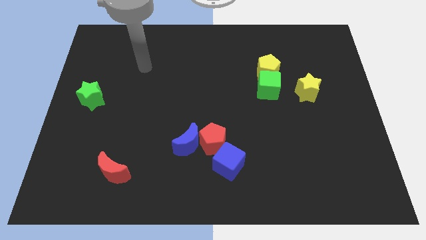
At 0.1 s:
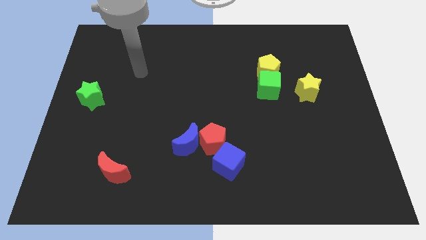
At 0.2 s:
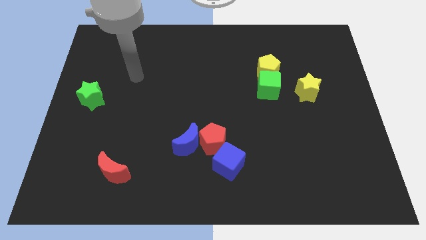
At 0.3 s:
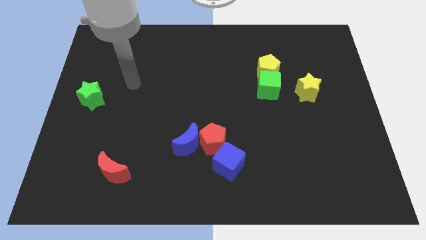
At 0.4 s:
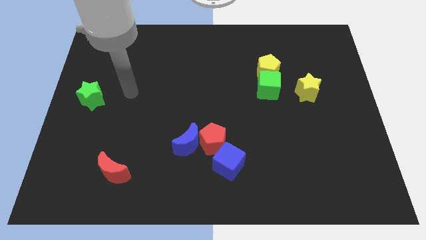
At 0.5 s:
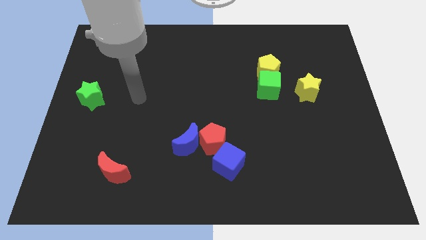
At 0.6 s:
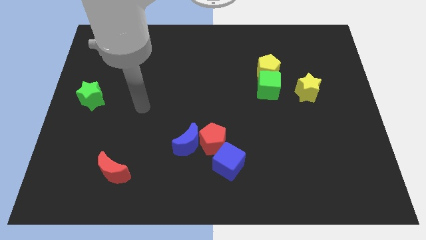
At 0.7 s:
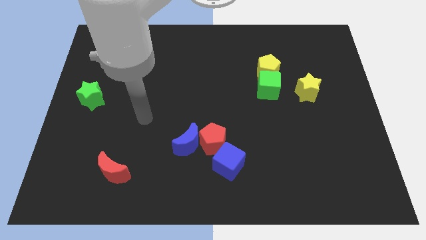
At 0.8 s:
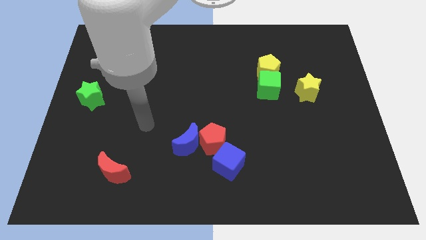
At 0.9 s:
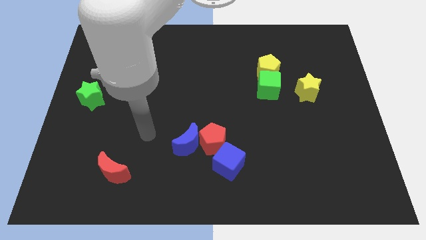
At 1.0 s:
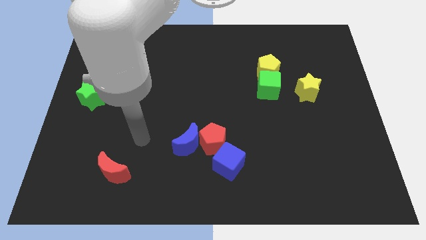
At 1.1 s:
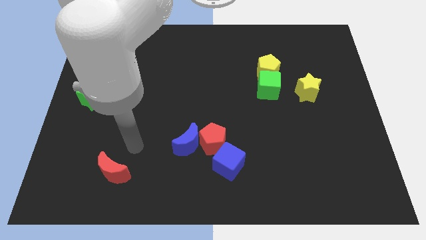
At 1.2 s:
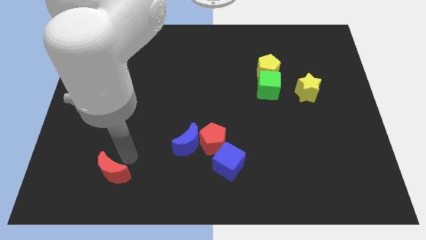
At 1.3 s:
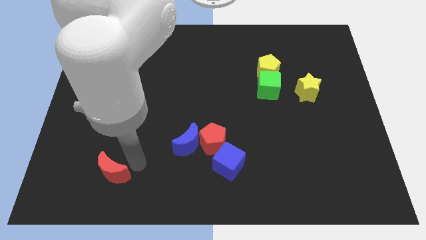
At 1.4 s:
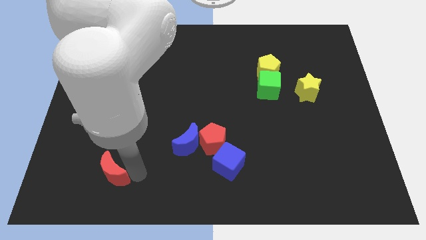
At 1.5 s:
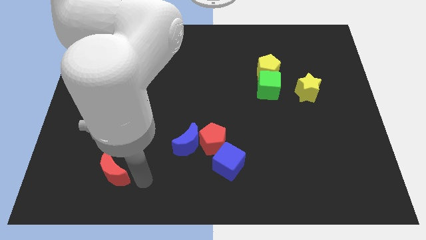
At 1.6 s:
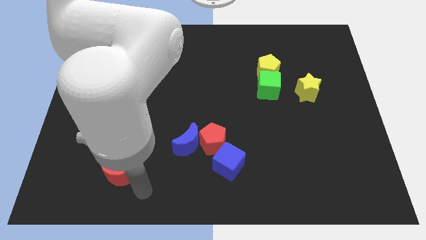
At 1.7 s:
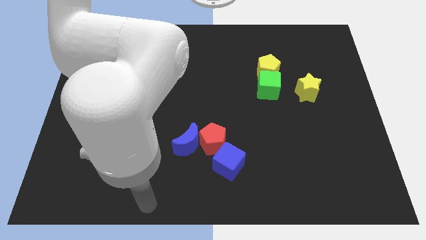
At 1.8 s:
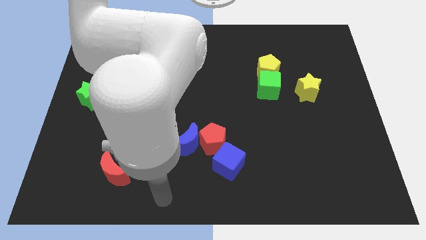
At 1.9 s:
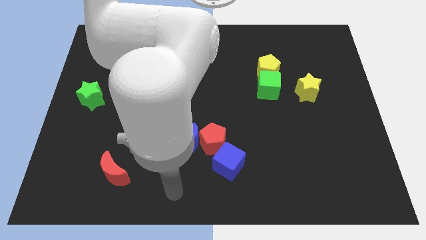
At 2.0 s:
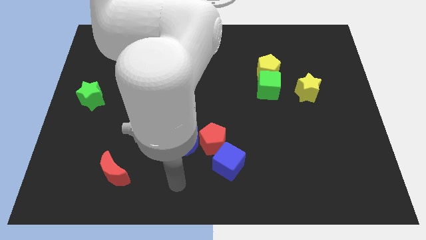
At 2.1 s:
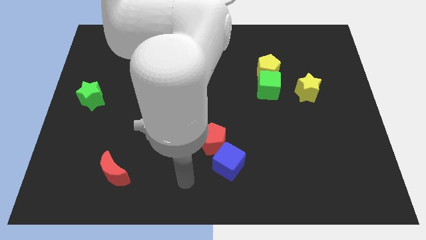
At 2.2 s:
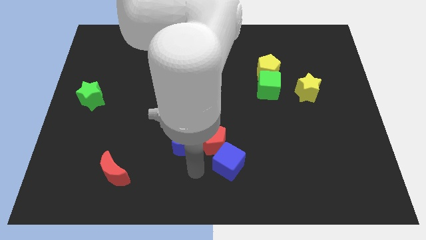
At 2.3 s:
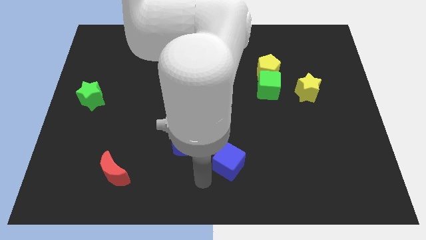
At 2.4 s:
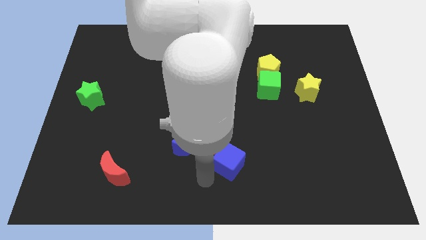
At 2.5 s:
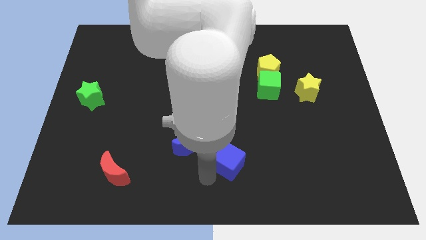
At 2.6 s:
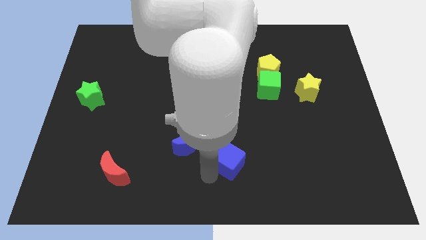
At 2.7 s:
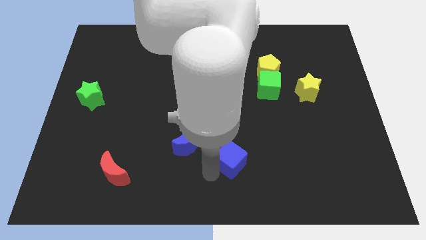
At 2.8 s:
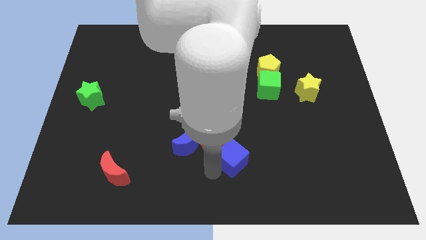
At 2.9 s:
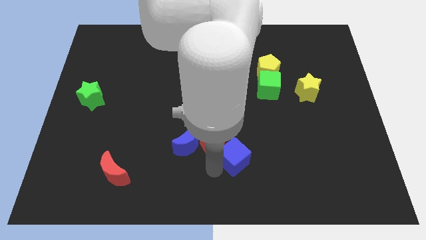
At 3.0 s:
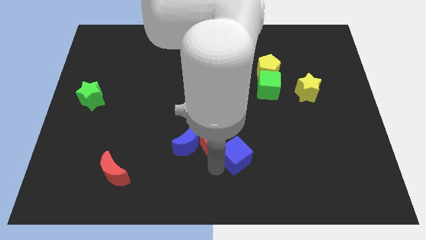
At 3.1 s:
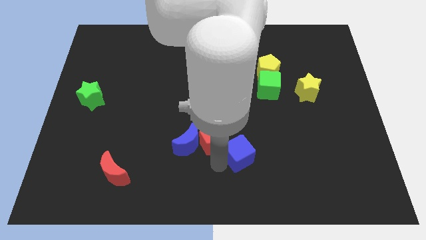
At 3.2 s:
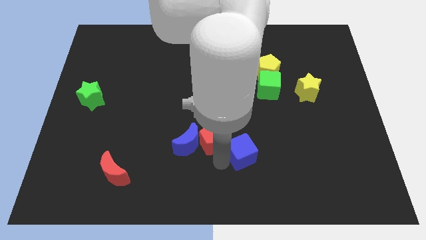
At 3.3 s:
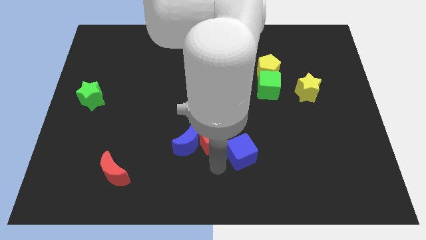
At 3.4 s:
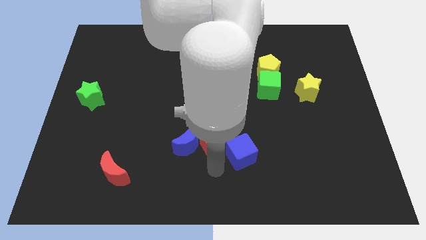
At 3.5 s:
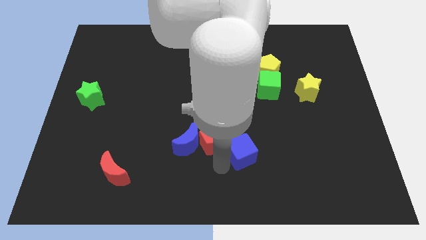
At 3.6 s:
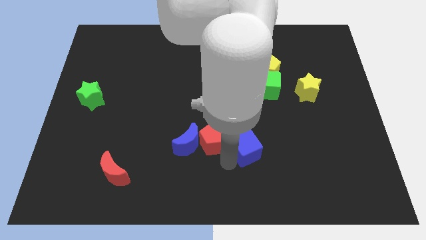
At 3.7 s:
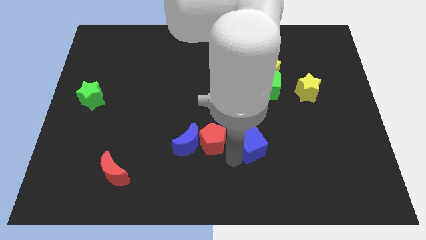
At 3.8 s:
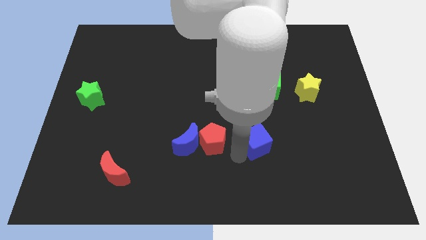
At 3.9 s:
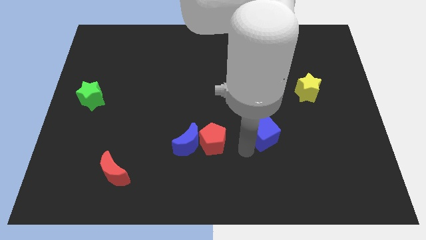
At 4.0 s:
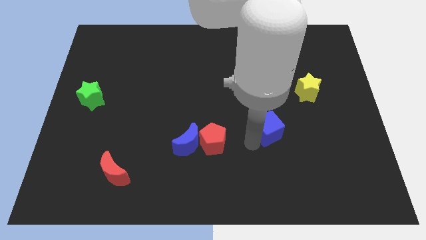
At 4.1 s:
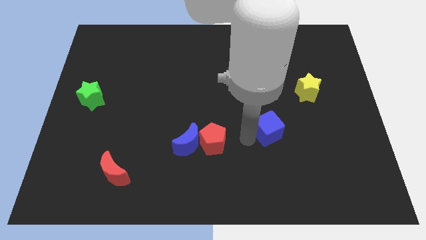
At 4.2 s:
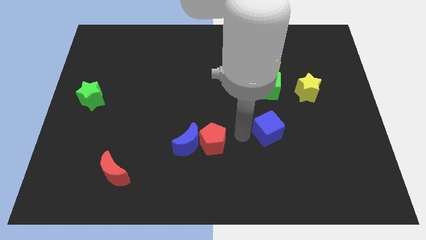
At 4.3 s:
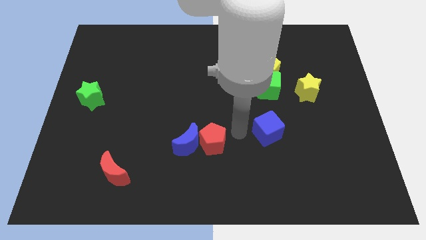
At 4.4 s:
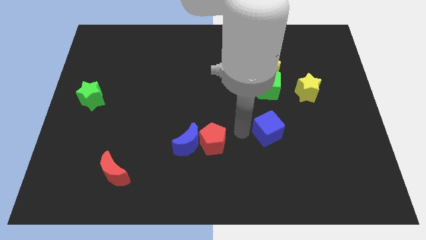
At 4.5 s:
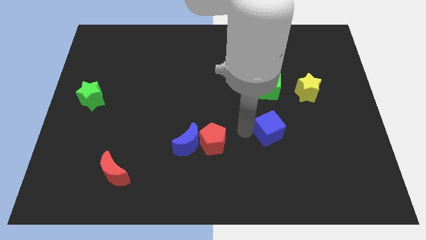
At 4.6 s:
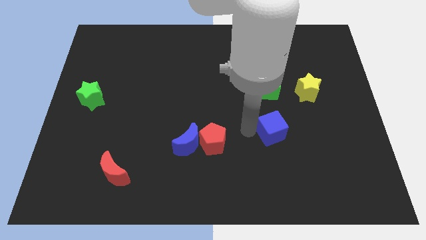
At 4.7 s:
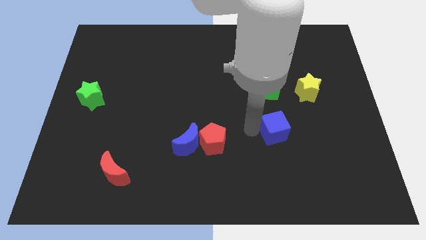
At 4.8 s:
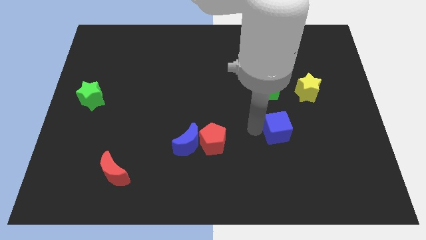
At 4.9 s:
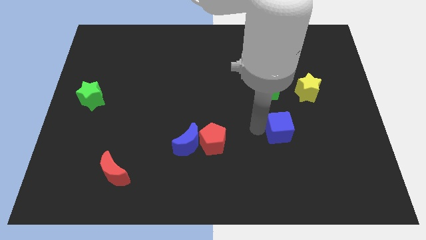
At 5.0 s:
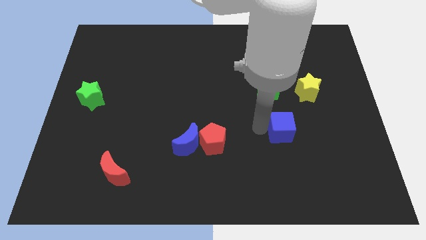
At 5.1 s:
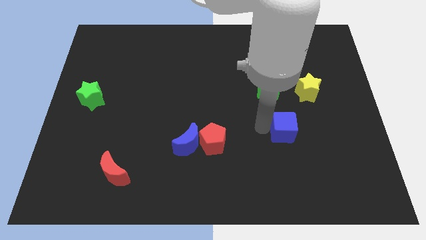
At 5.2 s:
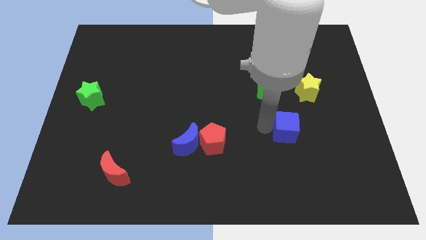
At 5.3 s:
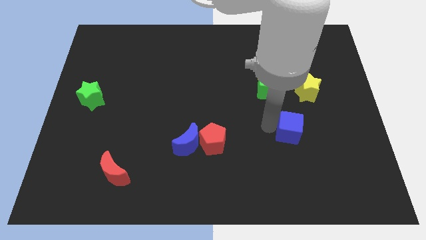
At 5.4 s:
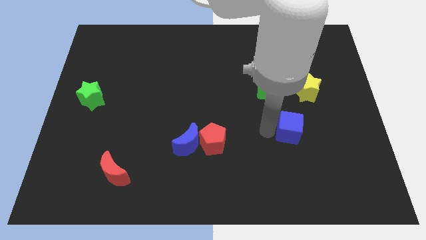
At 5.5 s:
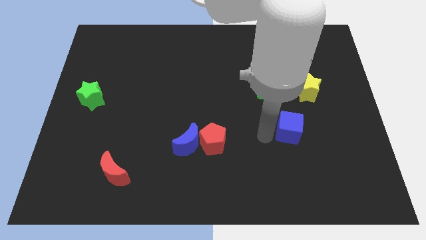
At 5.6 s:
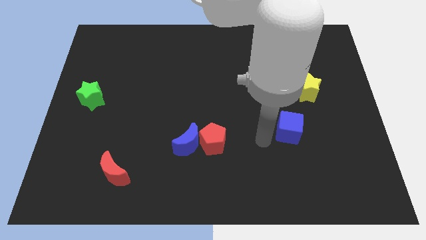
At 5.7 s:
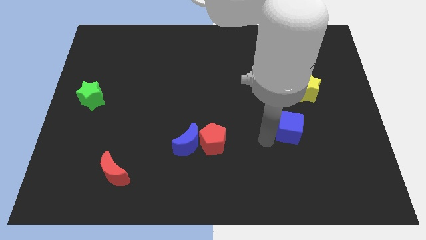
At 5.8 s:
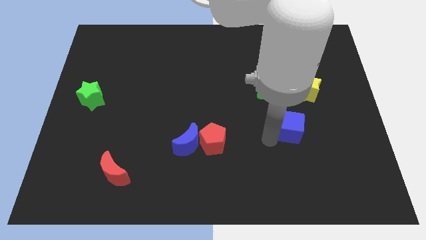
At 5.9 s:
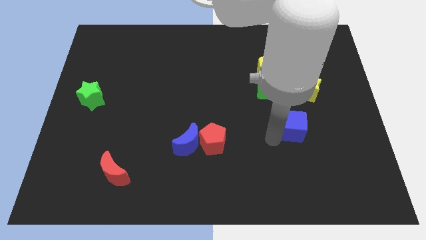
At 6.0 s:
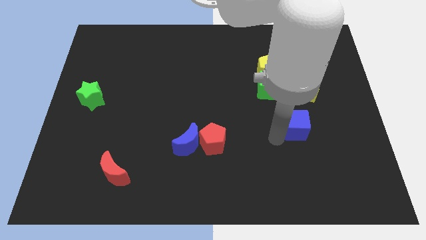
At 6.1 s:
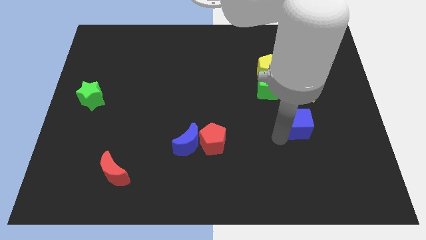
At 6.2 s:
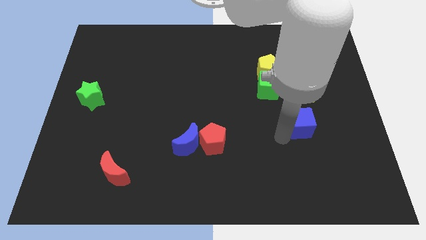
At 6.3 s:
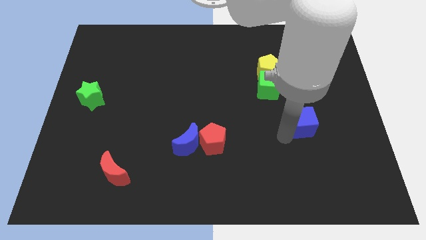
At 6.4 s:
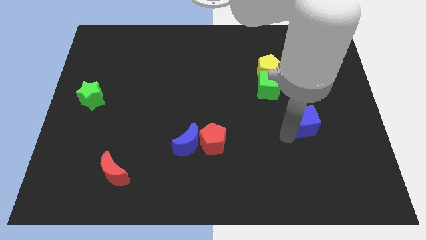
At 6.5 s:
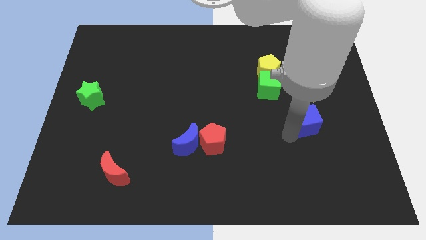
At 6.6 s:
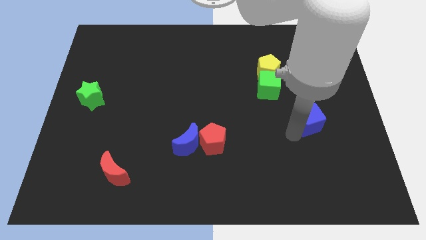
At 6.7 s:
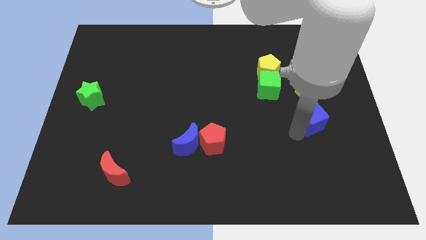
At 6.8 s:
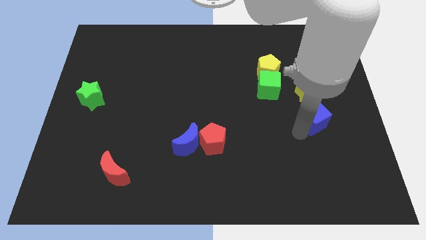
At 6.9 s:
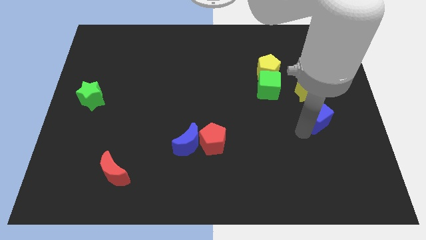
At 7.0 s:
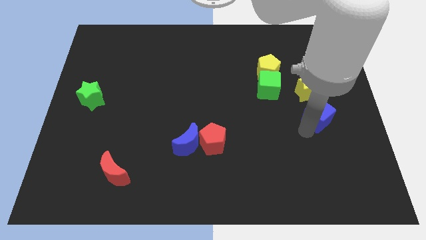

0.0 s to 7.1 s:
push the blue cube to the bottom right of the yellow star

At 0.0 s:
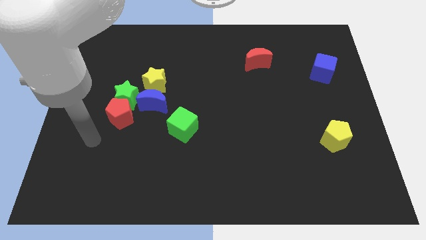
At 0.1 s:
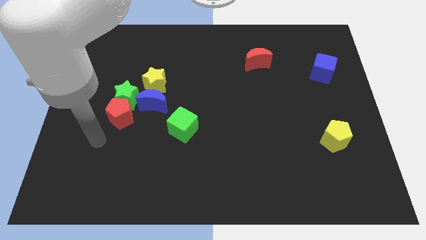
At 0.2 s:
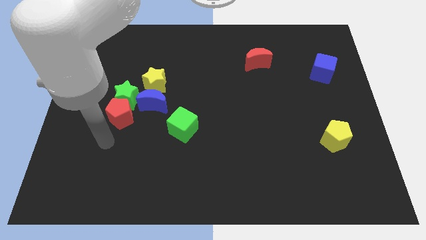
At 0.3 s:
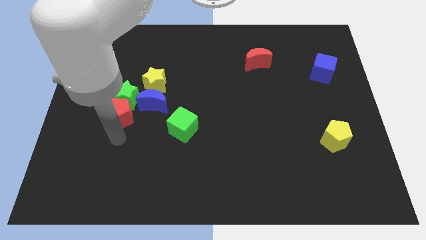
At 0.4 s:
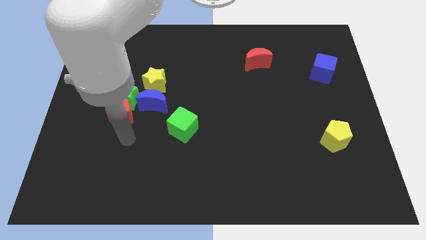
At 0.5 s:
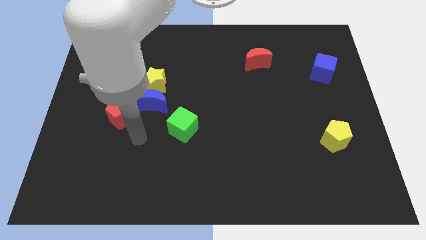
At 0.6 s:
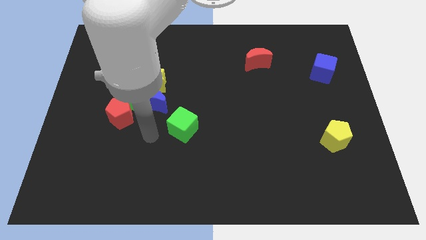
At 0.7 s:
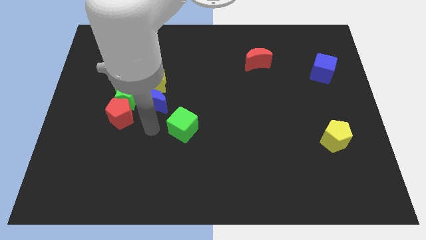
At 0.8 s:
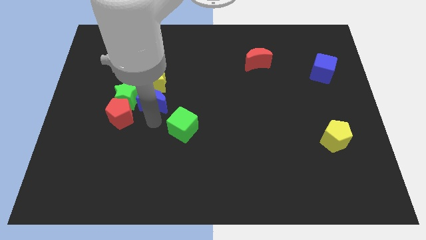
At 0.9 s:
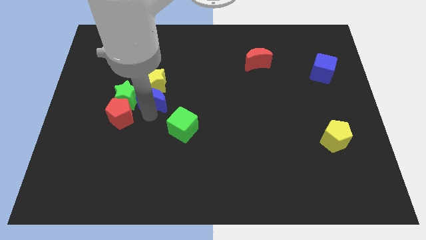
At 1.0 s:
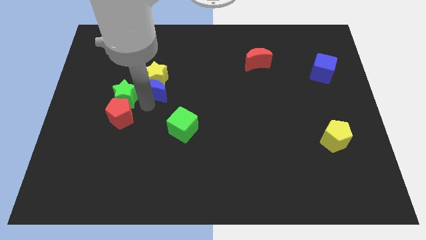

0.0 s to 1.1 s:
put the green star to the bottom left of the blue moon
